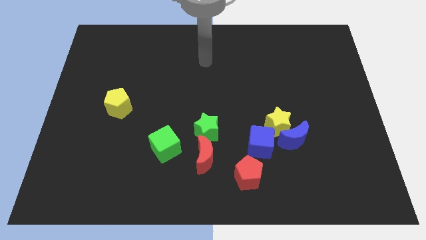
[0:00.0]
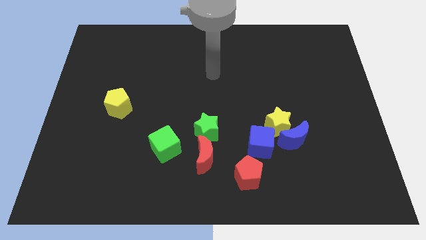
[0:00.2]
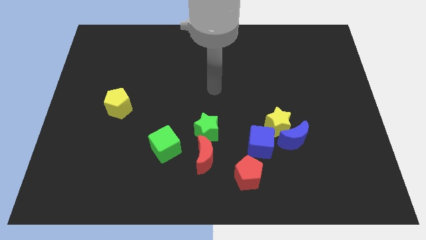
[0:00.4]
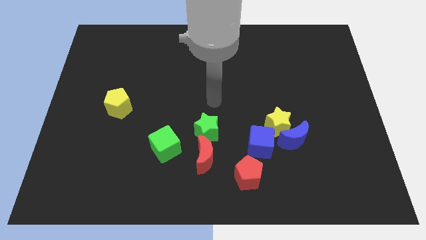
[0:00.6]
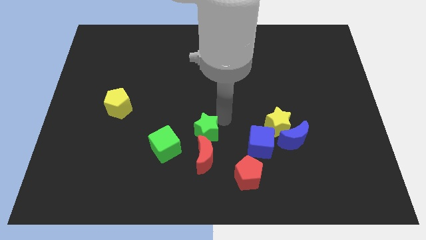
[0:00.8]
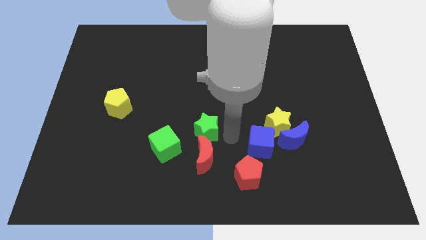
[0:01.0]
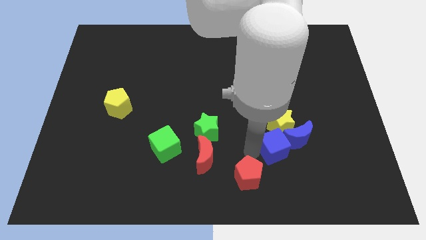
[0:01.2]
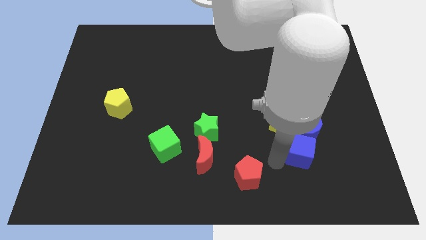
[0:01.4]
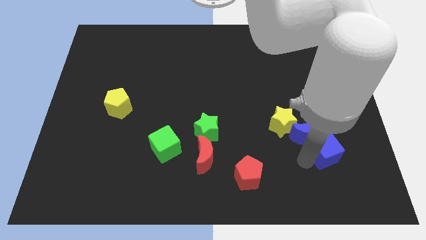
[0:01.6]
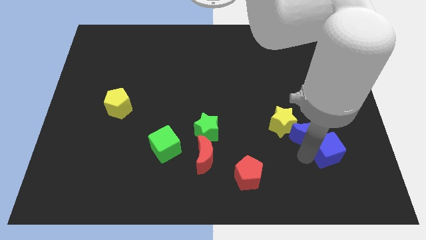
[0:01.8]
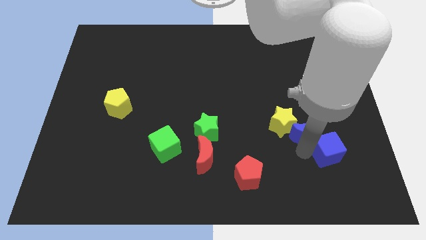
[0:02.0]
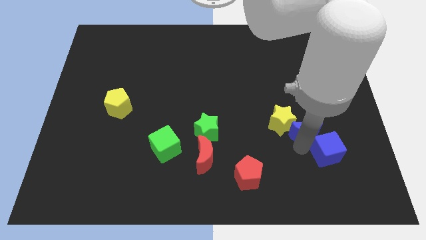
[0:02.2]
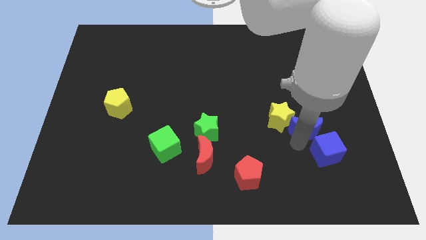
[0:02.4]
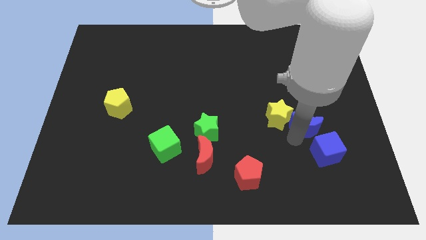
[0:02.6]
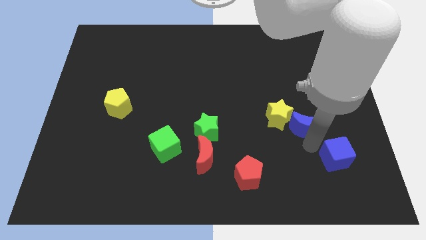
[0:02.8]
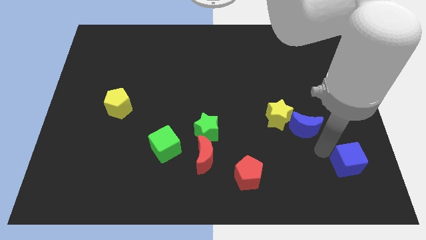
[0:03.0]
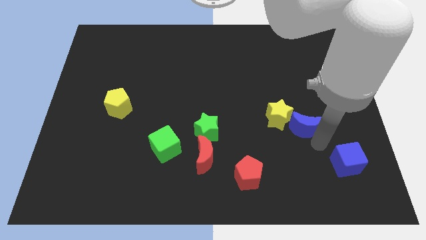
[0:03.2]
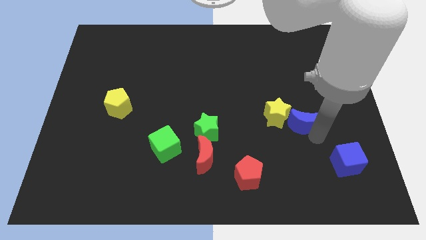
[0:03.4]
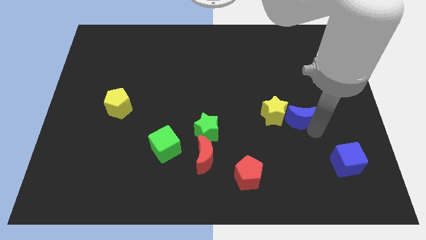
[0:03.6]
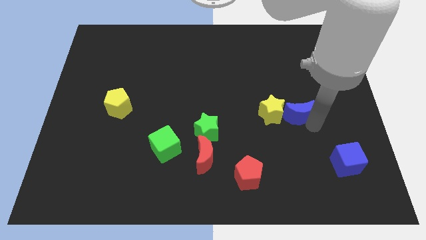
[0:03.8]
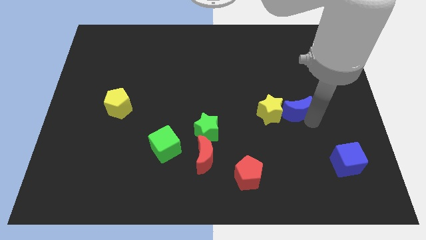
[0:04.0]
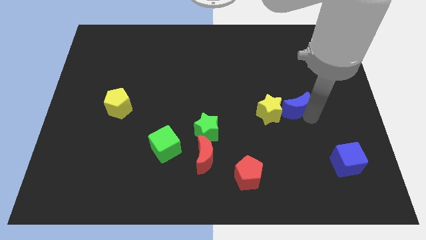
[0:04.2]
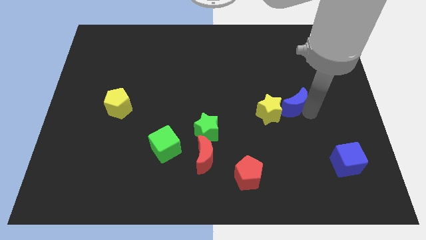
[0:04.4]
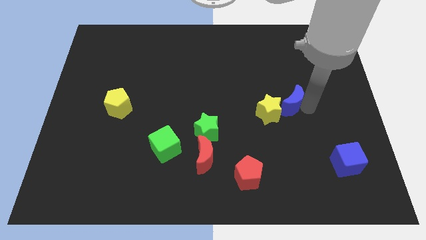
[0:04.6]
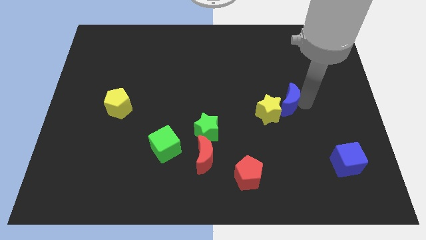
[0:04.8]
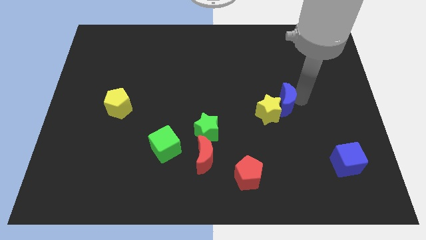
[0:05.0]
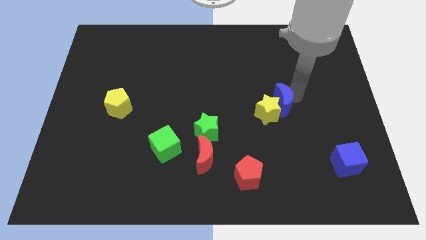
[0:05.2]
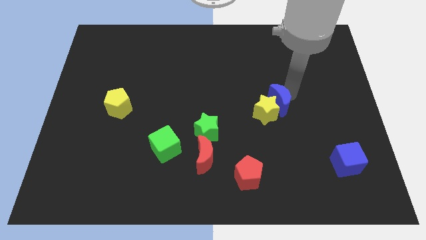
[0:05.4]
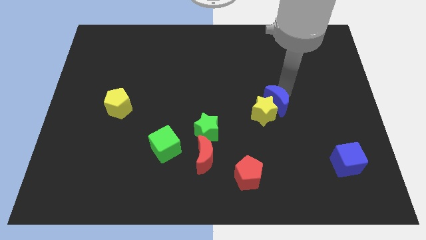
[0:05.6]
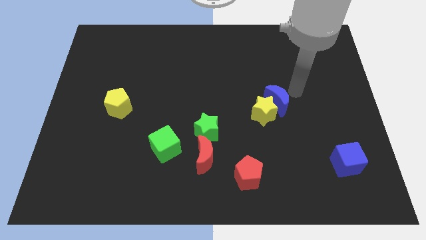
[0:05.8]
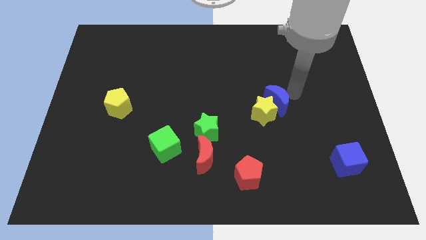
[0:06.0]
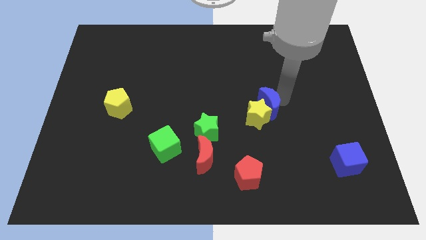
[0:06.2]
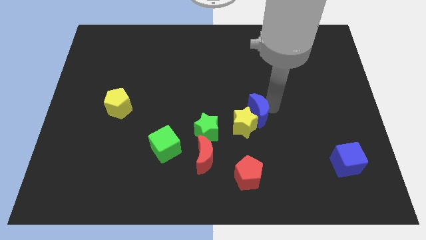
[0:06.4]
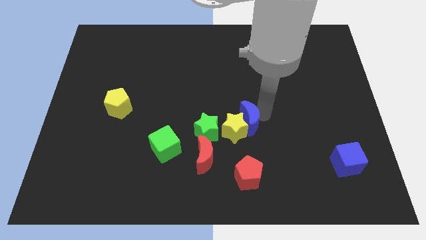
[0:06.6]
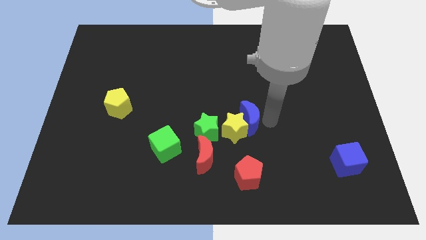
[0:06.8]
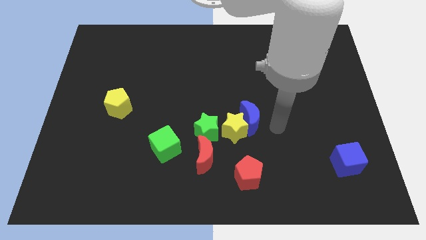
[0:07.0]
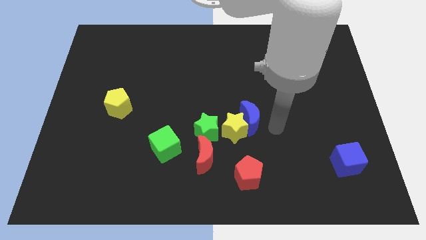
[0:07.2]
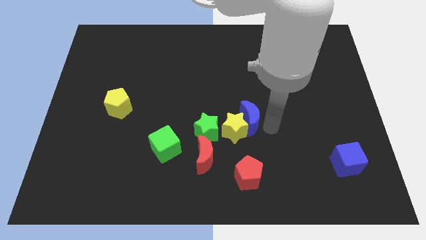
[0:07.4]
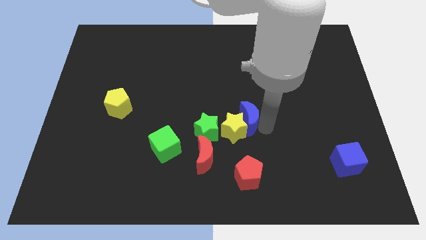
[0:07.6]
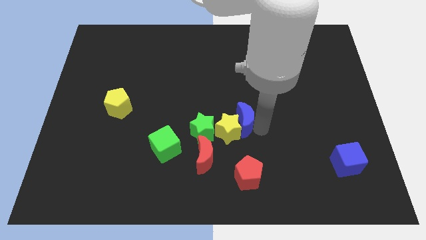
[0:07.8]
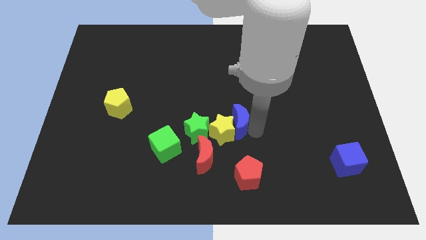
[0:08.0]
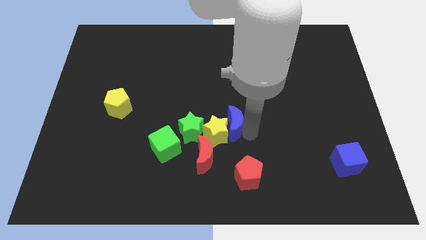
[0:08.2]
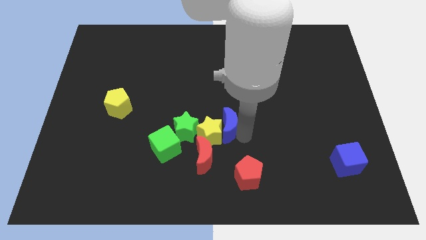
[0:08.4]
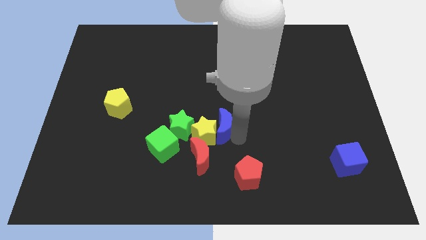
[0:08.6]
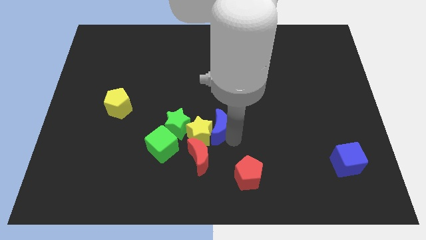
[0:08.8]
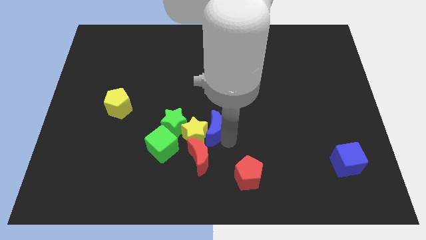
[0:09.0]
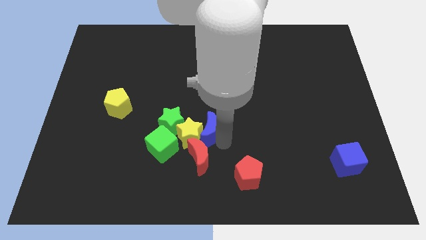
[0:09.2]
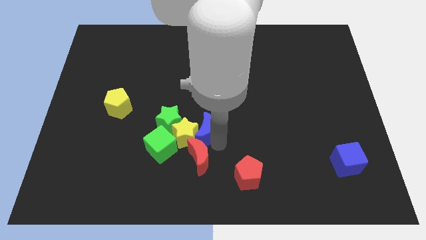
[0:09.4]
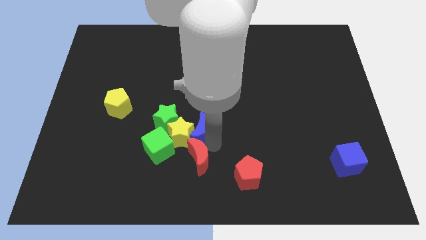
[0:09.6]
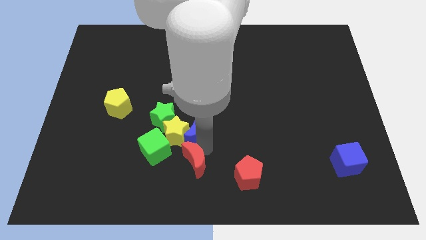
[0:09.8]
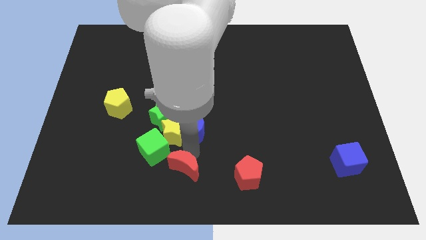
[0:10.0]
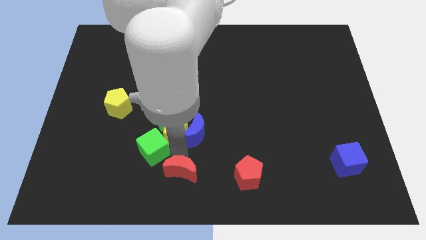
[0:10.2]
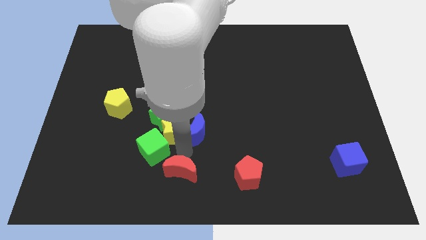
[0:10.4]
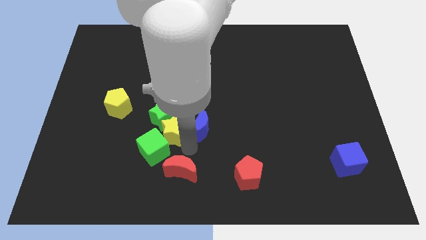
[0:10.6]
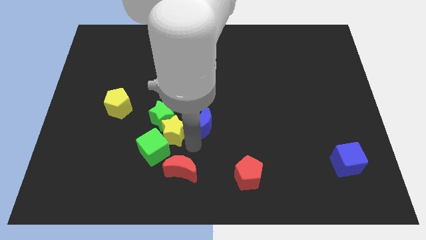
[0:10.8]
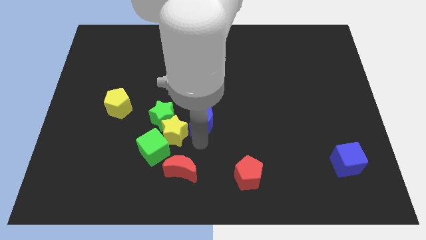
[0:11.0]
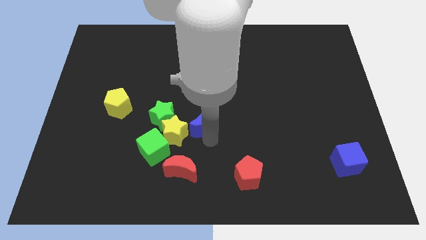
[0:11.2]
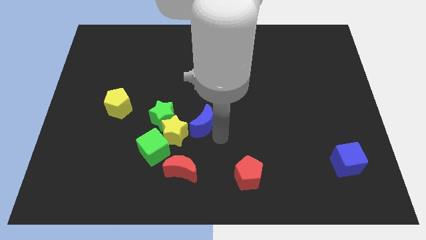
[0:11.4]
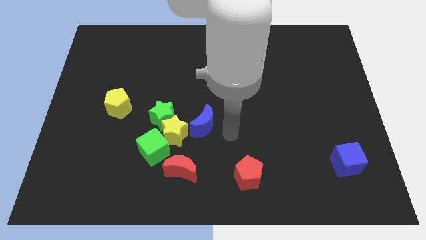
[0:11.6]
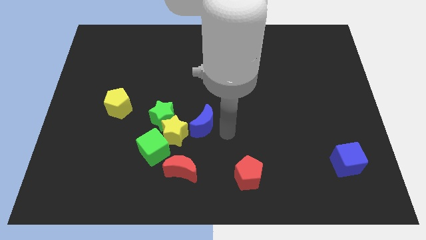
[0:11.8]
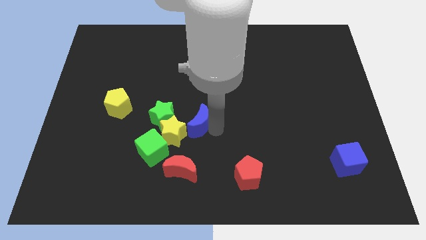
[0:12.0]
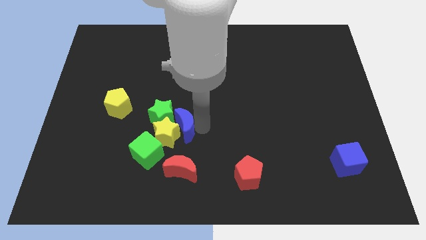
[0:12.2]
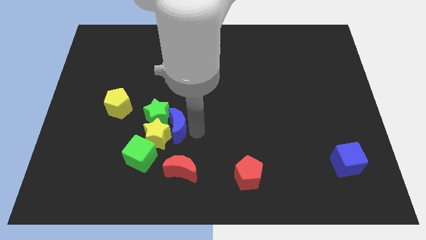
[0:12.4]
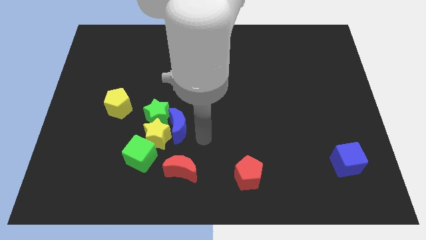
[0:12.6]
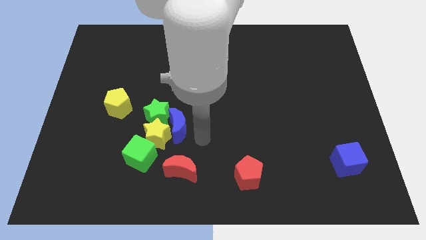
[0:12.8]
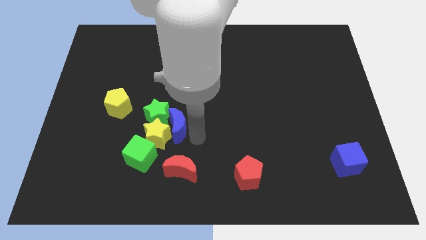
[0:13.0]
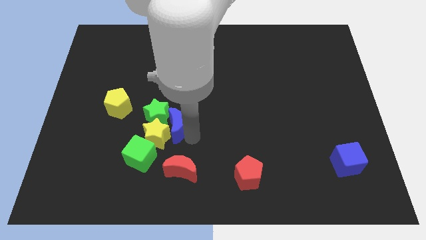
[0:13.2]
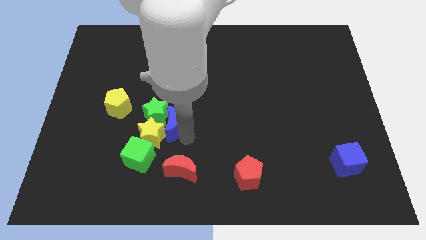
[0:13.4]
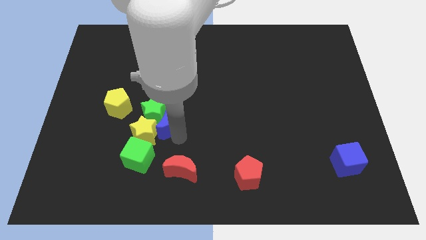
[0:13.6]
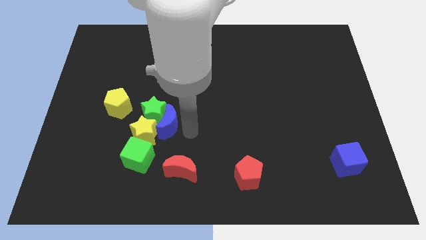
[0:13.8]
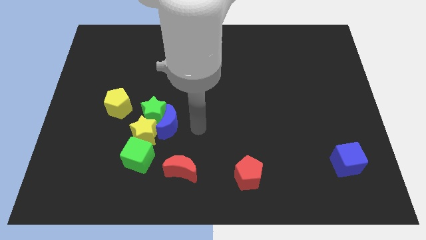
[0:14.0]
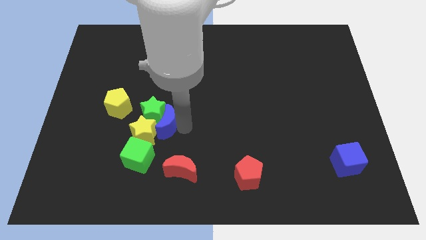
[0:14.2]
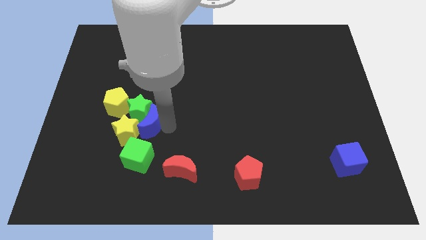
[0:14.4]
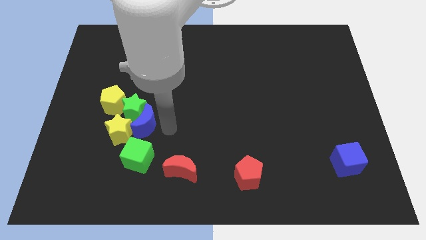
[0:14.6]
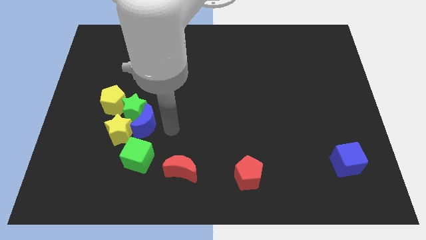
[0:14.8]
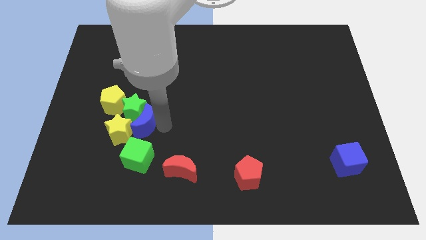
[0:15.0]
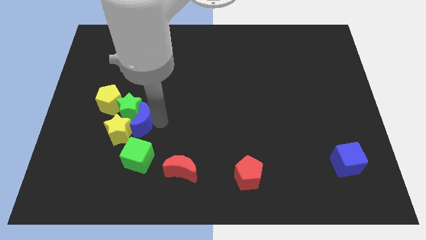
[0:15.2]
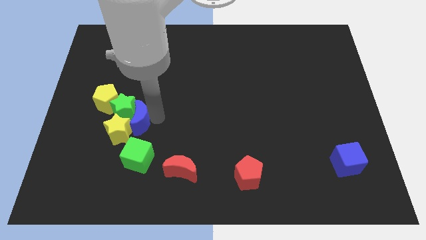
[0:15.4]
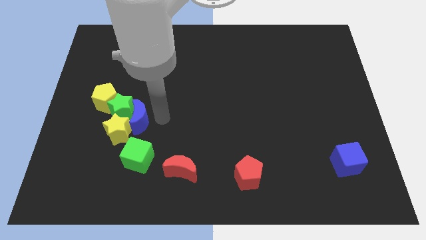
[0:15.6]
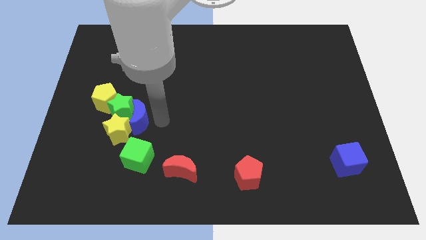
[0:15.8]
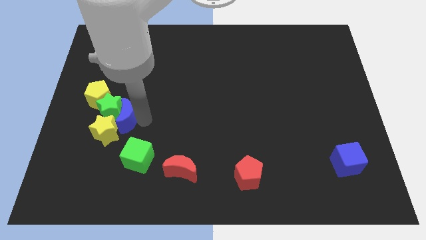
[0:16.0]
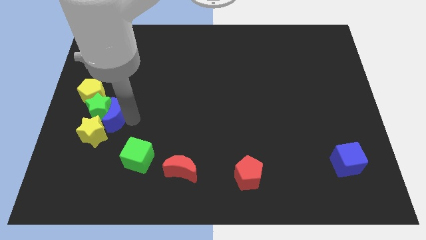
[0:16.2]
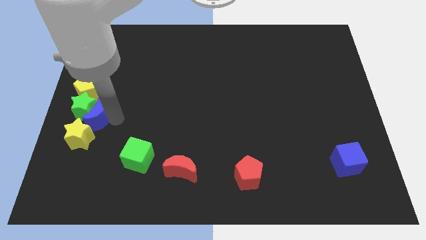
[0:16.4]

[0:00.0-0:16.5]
put the blue moon to the center left
